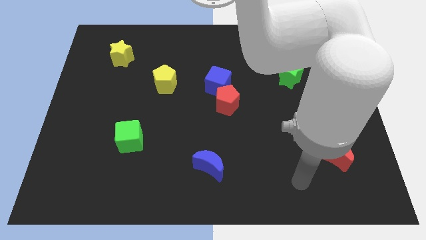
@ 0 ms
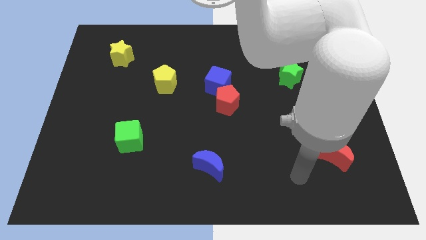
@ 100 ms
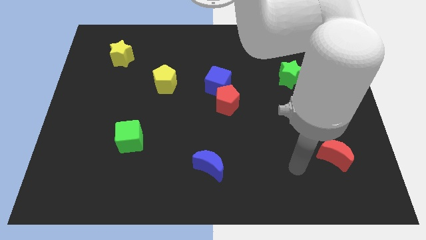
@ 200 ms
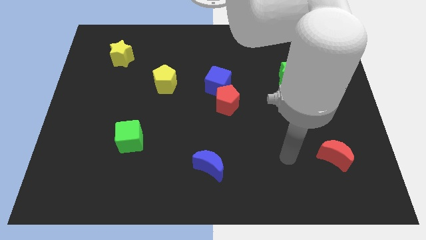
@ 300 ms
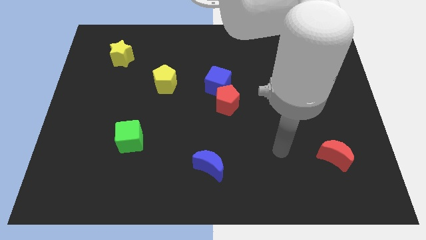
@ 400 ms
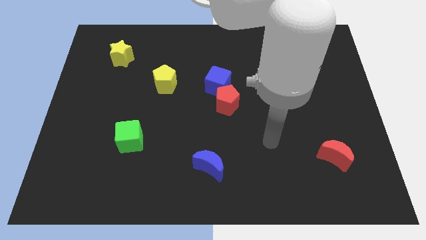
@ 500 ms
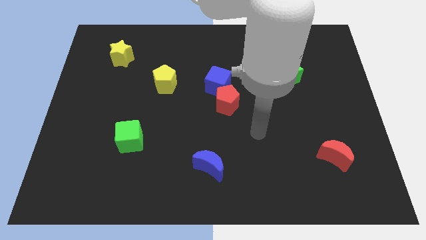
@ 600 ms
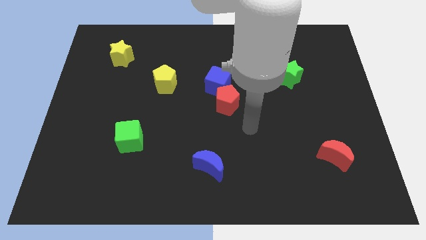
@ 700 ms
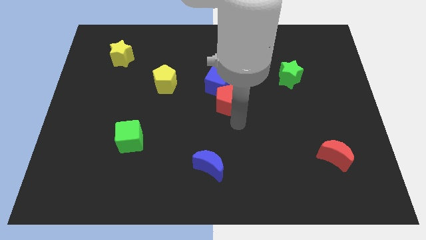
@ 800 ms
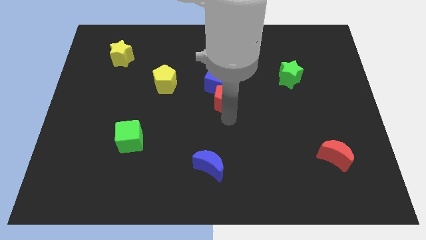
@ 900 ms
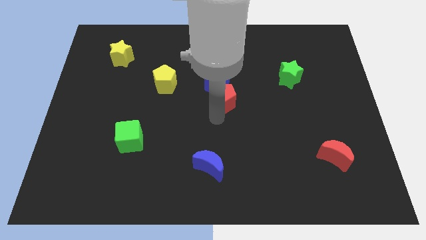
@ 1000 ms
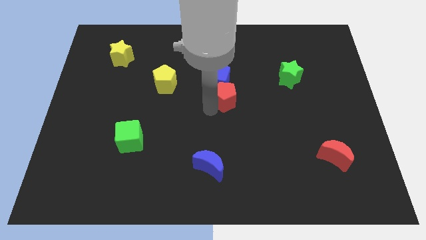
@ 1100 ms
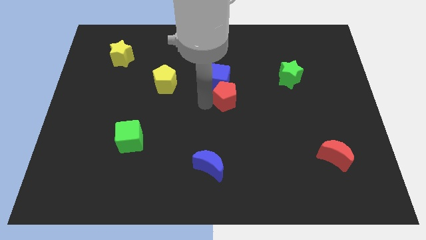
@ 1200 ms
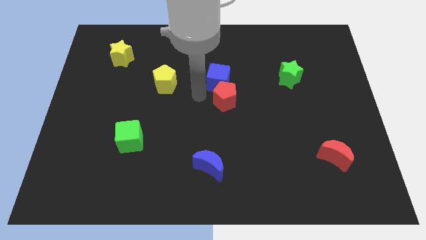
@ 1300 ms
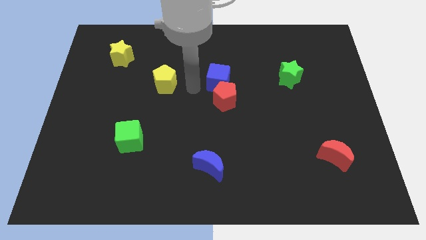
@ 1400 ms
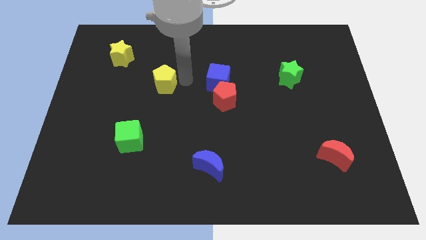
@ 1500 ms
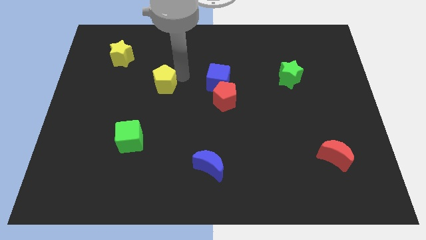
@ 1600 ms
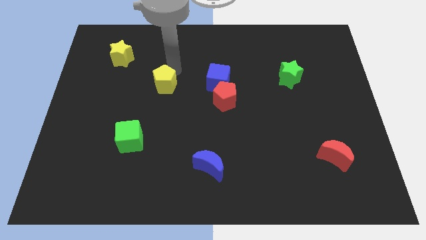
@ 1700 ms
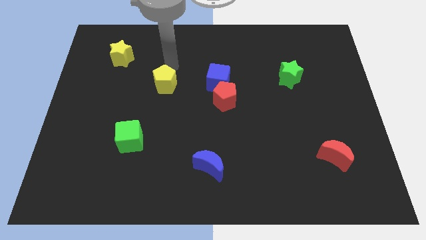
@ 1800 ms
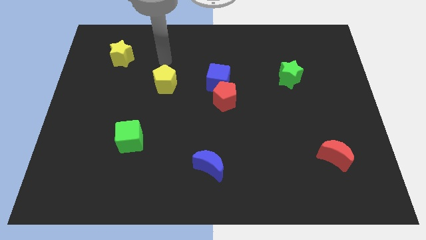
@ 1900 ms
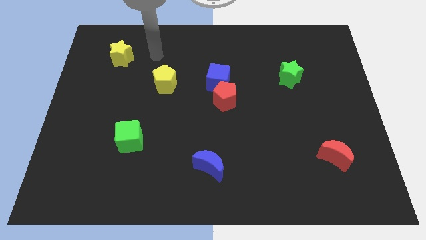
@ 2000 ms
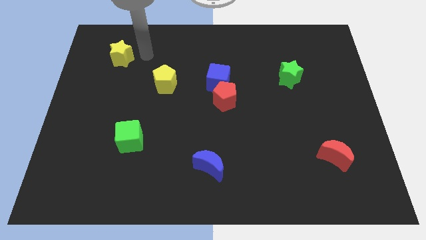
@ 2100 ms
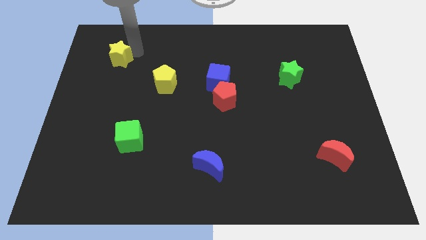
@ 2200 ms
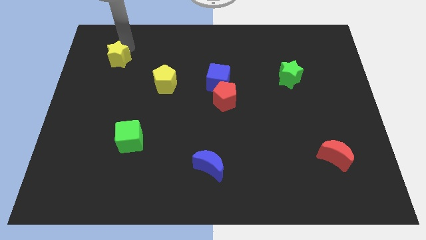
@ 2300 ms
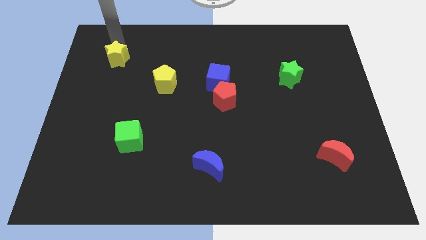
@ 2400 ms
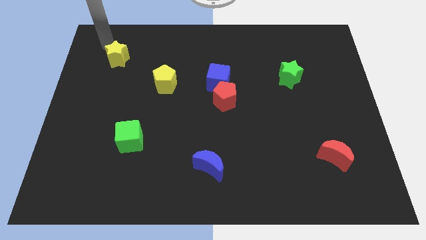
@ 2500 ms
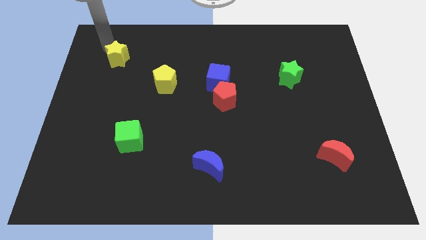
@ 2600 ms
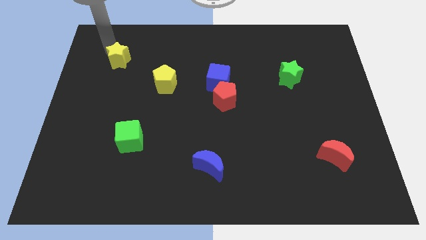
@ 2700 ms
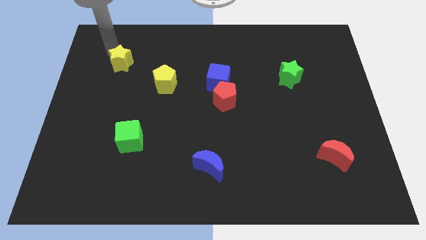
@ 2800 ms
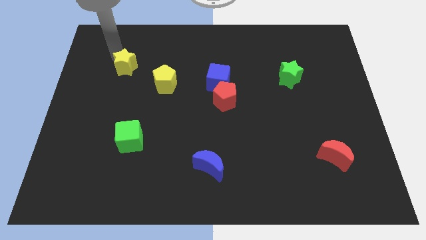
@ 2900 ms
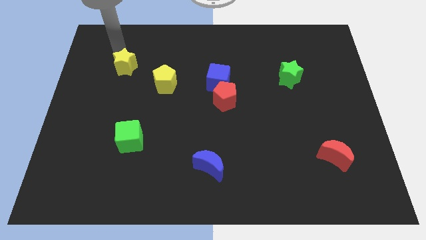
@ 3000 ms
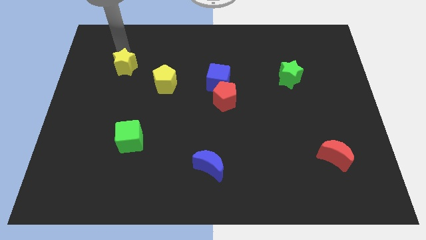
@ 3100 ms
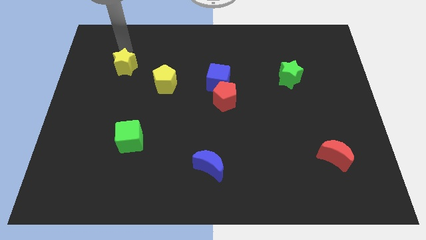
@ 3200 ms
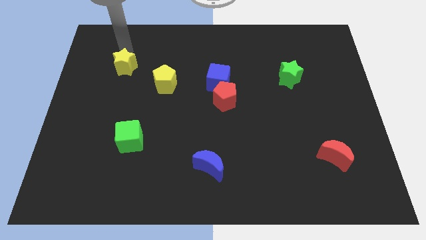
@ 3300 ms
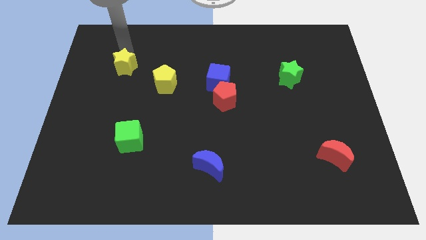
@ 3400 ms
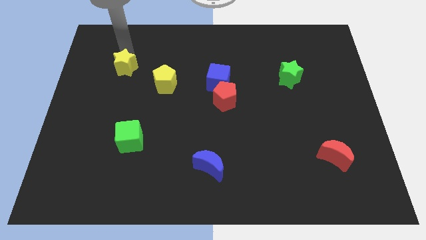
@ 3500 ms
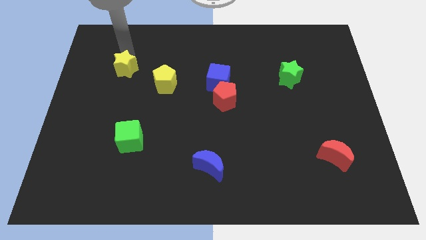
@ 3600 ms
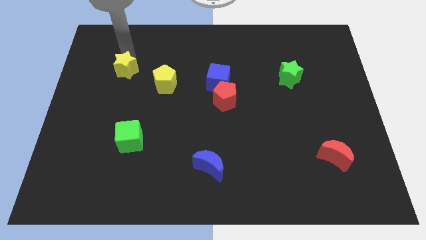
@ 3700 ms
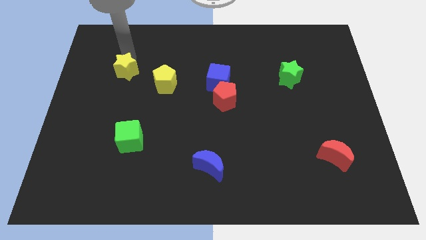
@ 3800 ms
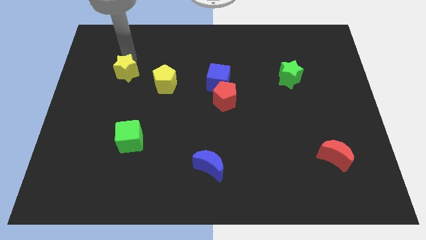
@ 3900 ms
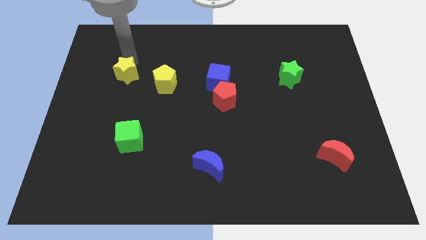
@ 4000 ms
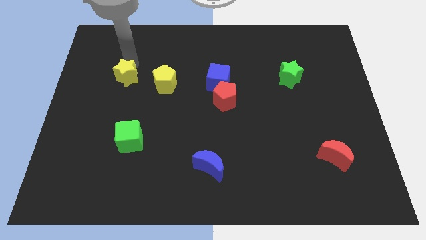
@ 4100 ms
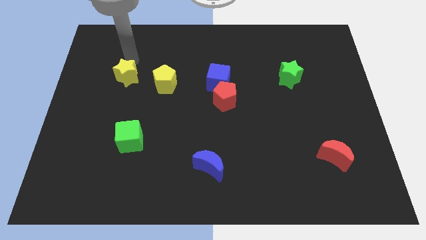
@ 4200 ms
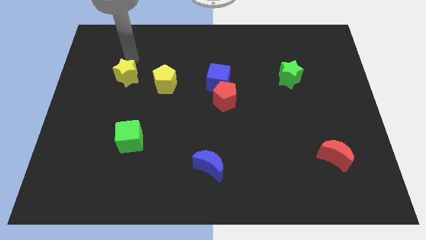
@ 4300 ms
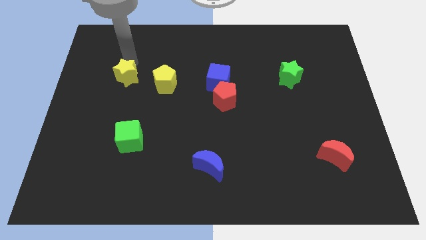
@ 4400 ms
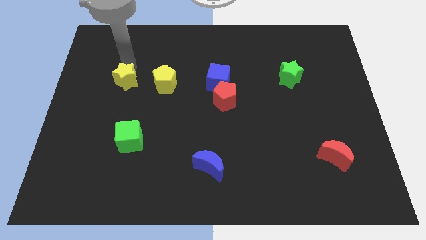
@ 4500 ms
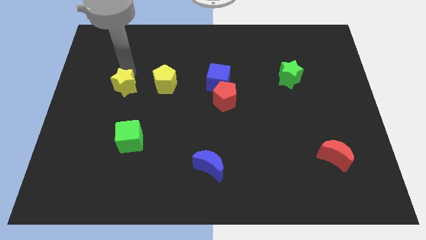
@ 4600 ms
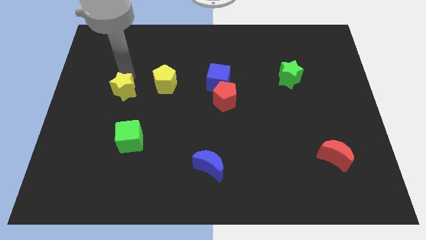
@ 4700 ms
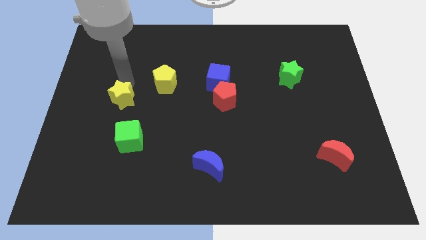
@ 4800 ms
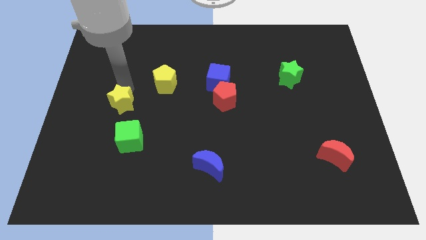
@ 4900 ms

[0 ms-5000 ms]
move the yellow star diagonally up and to the left of the green cube

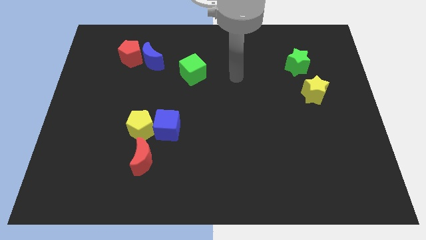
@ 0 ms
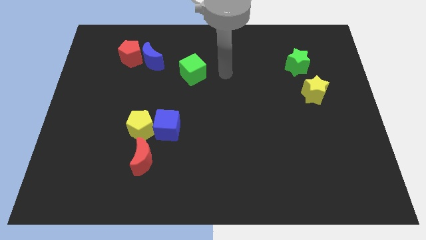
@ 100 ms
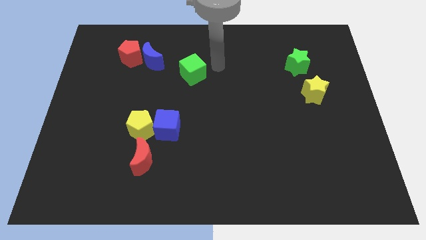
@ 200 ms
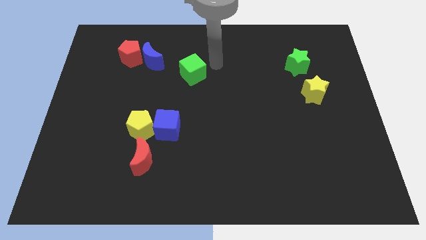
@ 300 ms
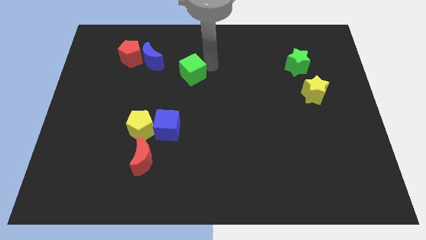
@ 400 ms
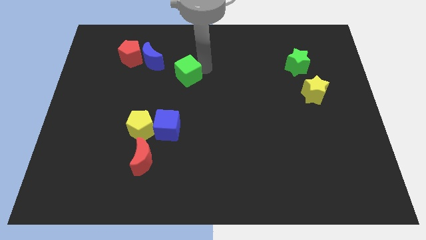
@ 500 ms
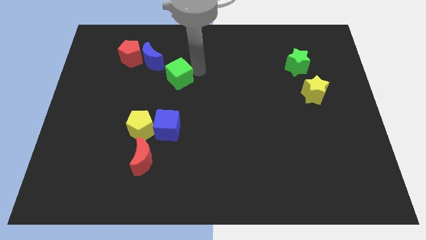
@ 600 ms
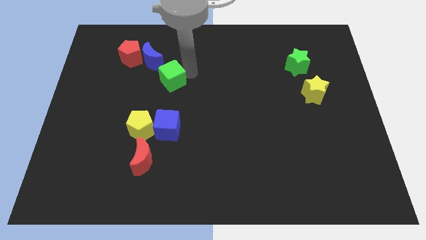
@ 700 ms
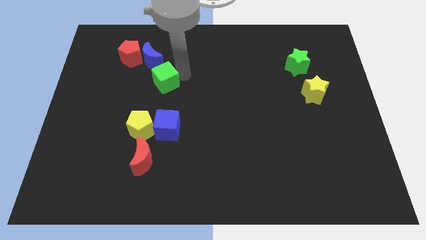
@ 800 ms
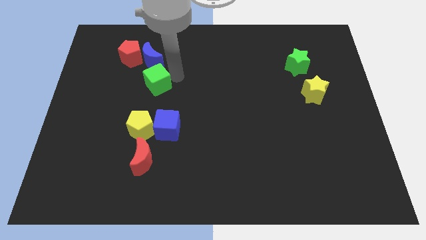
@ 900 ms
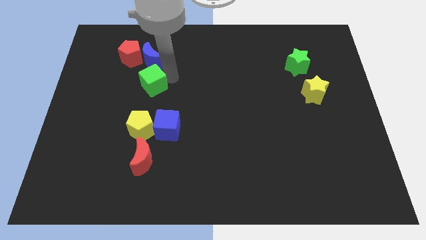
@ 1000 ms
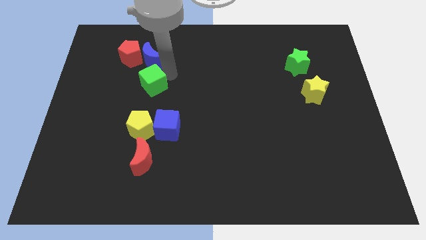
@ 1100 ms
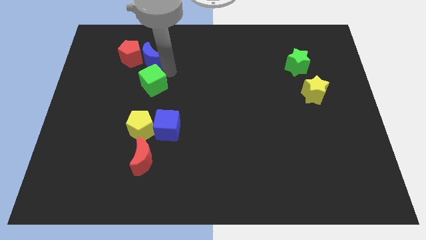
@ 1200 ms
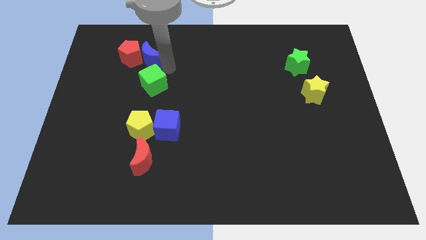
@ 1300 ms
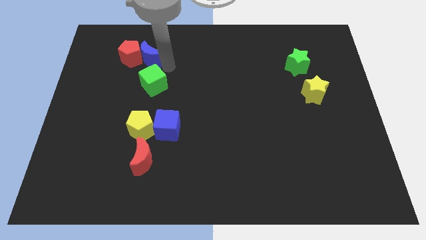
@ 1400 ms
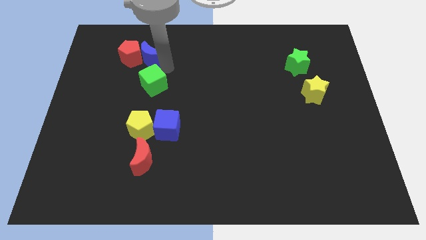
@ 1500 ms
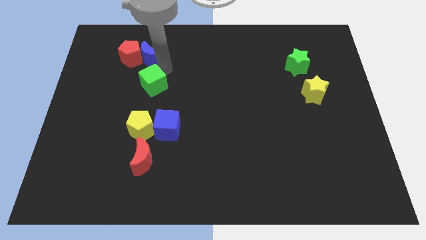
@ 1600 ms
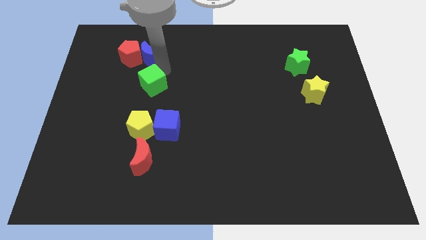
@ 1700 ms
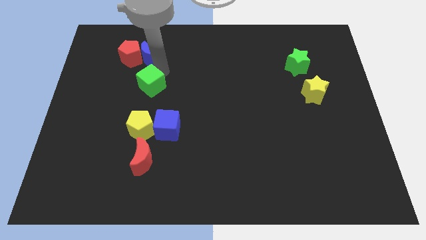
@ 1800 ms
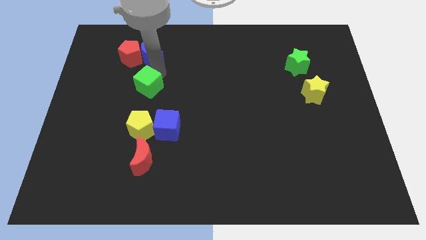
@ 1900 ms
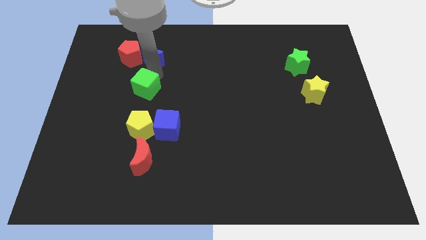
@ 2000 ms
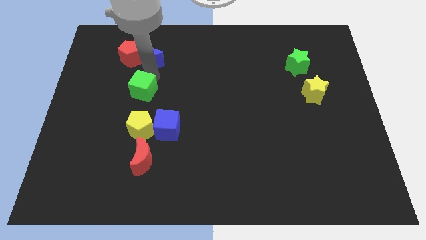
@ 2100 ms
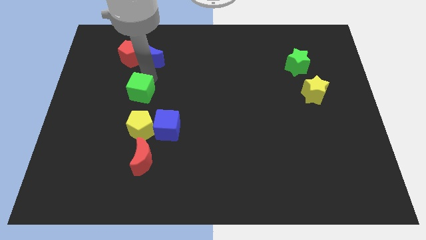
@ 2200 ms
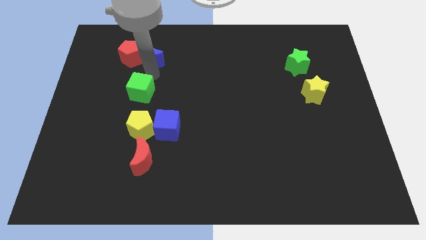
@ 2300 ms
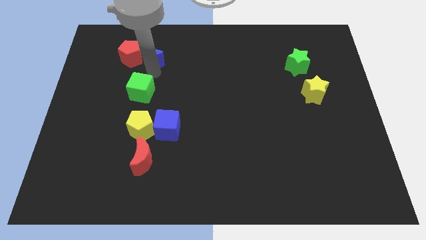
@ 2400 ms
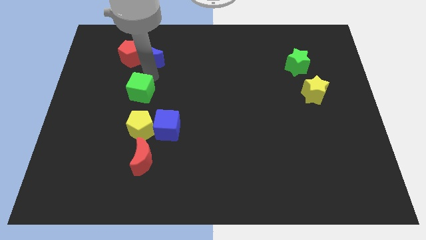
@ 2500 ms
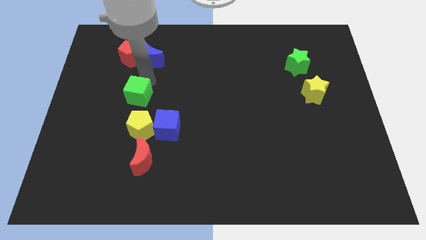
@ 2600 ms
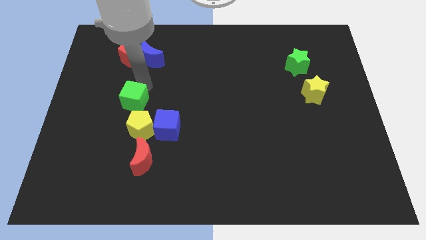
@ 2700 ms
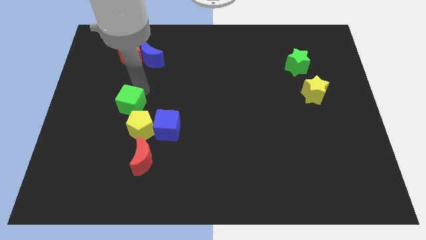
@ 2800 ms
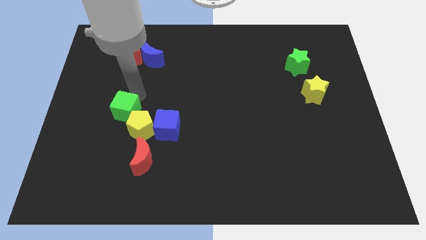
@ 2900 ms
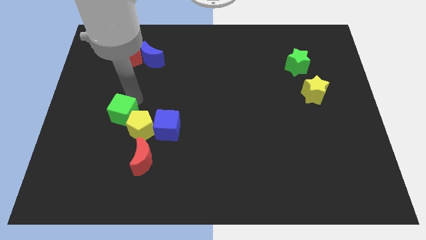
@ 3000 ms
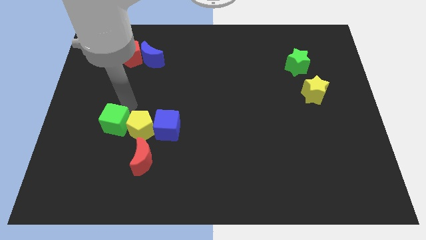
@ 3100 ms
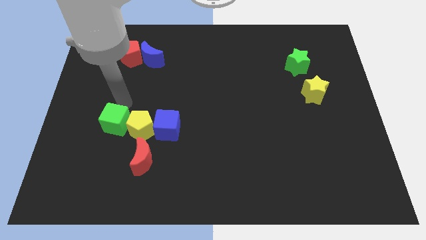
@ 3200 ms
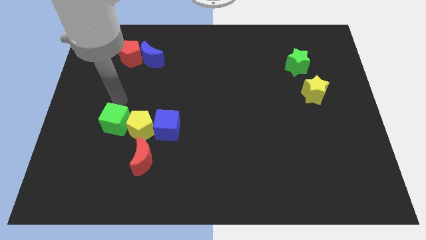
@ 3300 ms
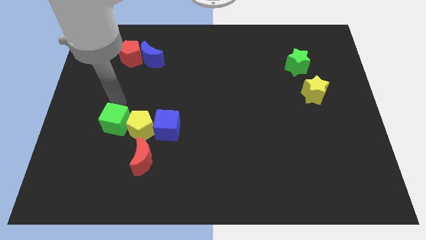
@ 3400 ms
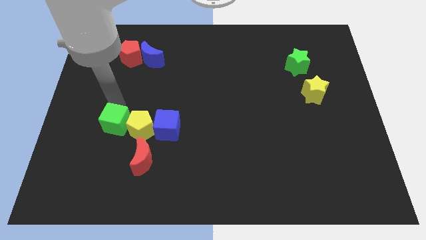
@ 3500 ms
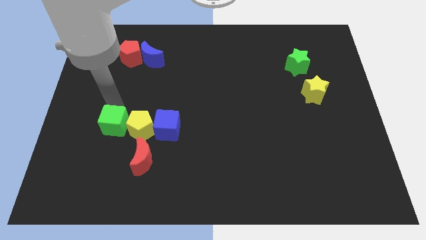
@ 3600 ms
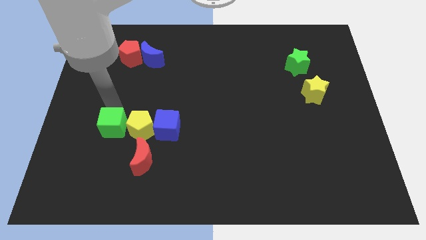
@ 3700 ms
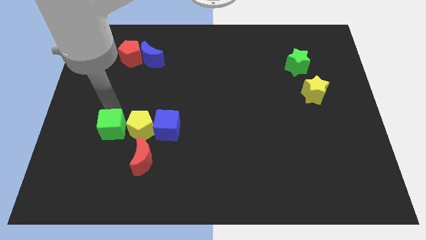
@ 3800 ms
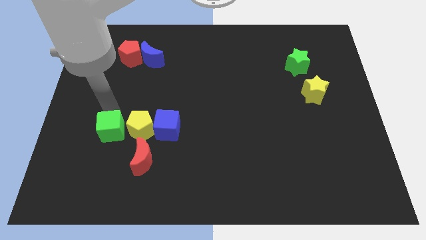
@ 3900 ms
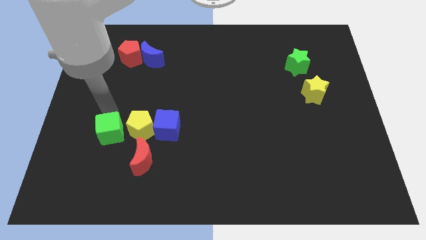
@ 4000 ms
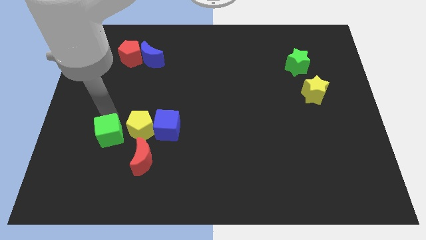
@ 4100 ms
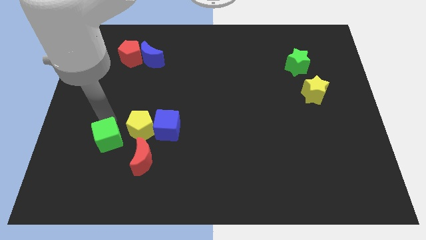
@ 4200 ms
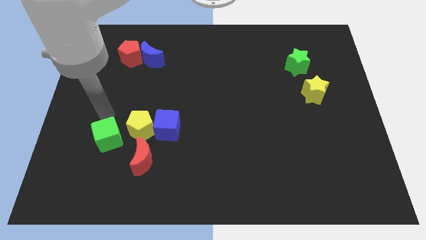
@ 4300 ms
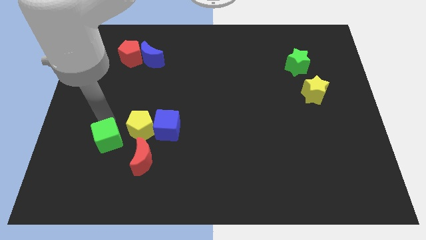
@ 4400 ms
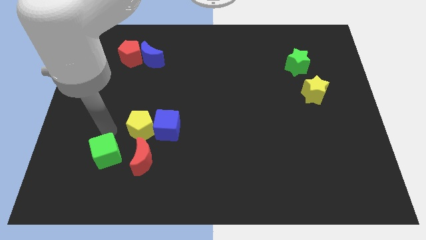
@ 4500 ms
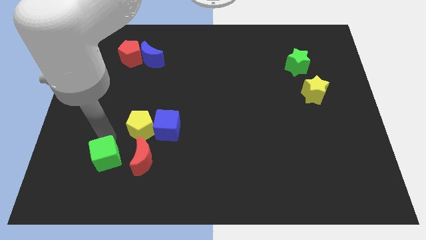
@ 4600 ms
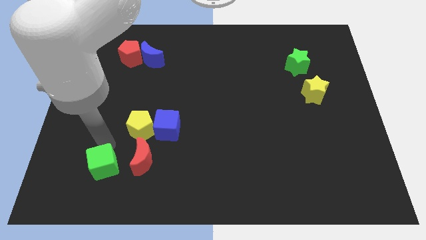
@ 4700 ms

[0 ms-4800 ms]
put the green cube to the bottom left side of the red moon
